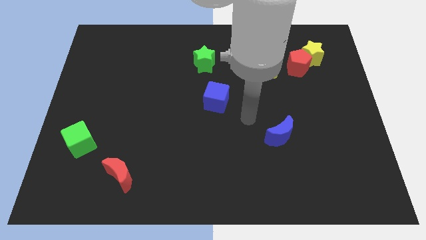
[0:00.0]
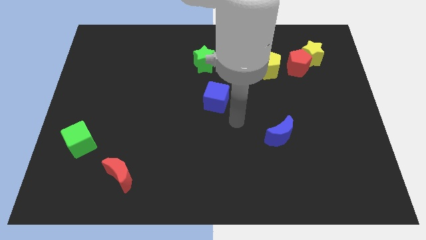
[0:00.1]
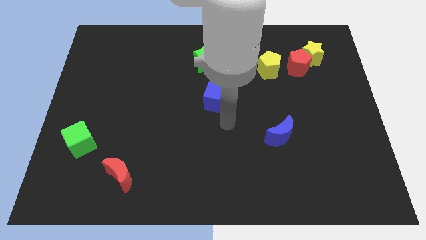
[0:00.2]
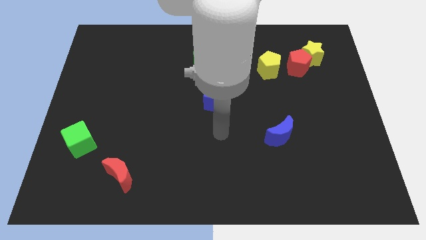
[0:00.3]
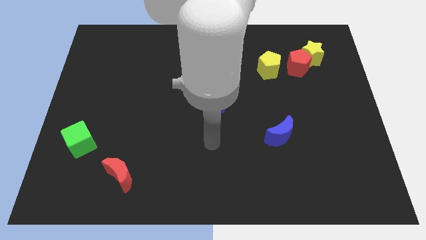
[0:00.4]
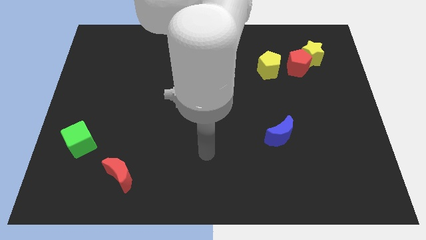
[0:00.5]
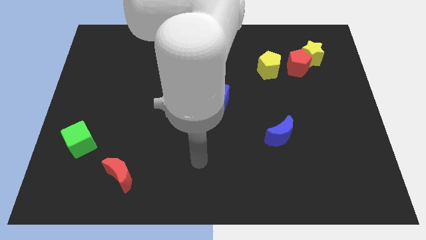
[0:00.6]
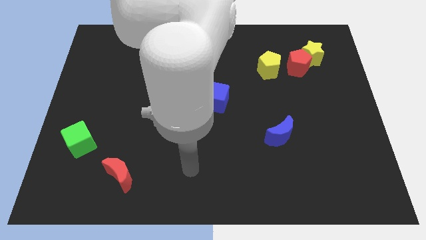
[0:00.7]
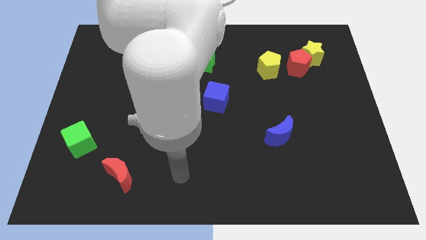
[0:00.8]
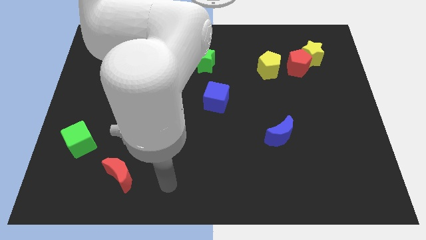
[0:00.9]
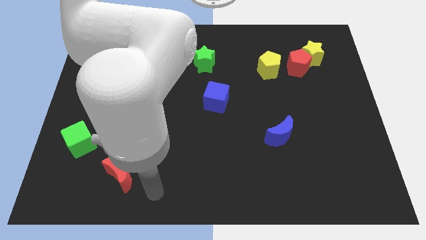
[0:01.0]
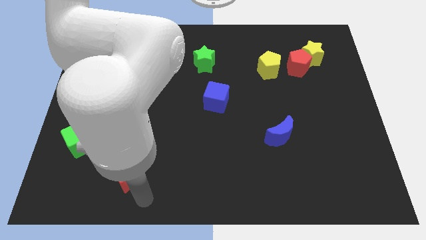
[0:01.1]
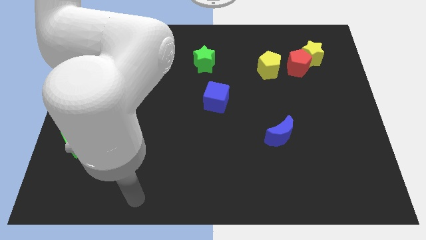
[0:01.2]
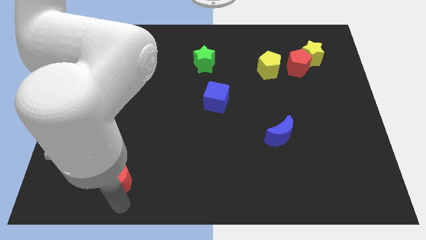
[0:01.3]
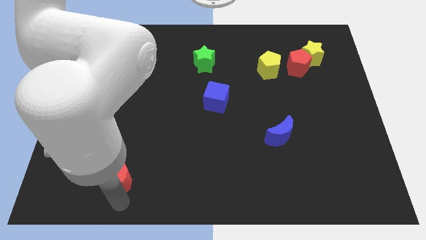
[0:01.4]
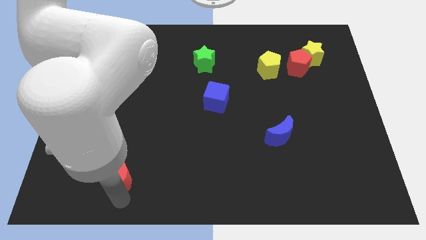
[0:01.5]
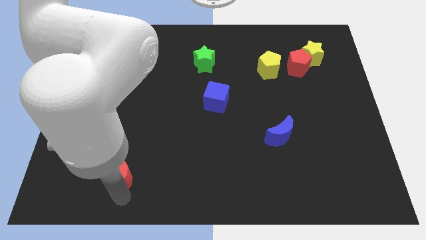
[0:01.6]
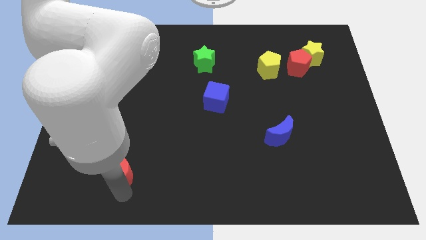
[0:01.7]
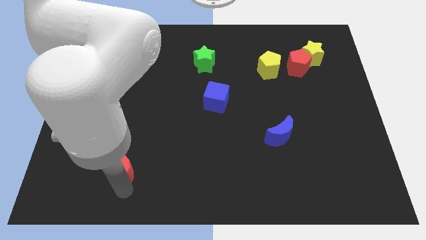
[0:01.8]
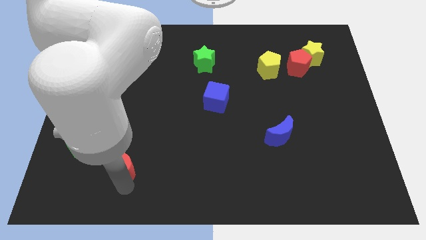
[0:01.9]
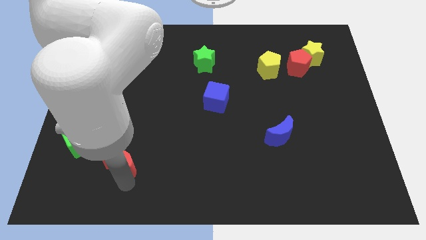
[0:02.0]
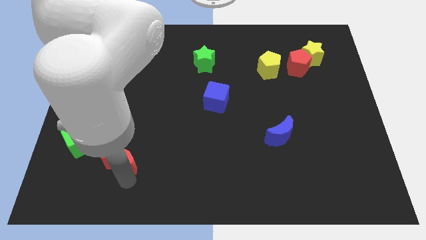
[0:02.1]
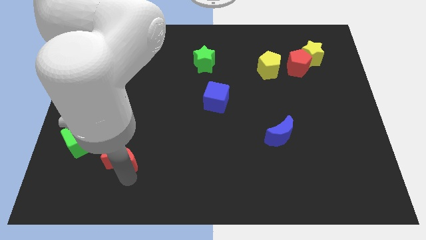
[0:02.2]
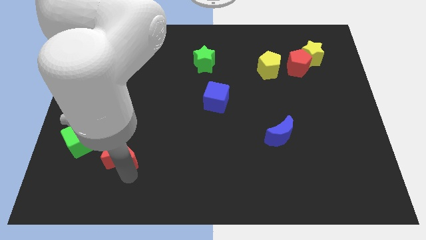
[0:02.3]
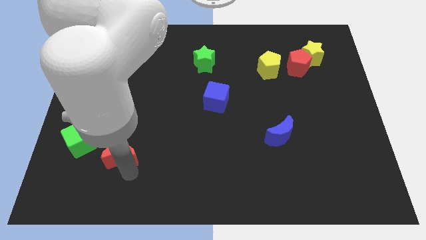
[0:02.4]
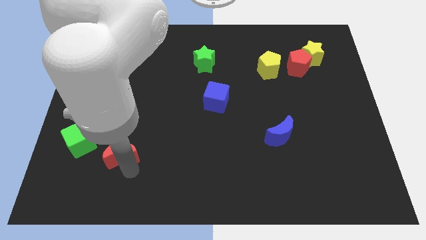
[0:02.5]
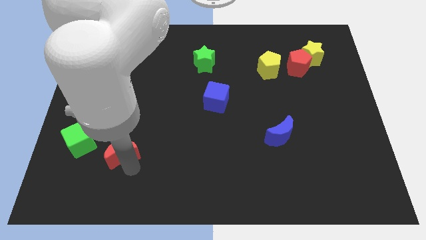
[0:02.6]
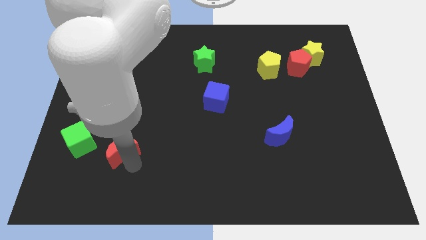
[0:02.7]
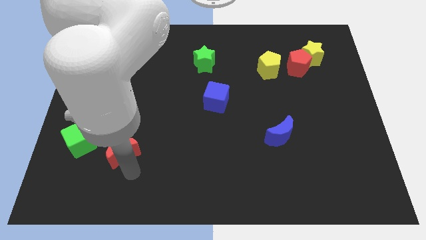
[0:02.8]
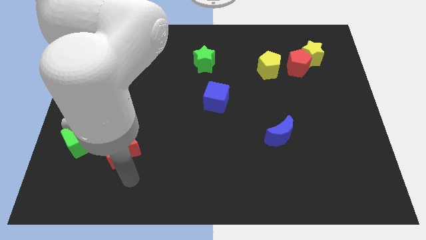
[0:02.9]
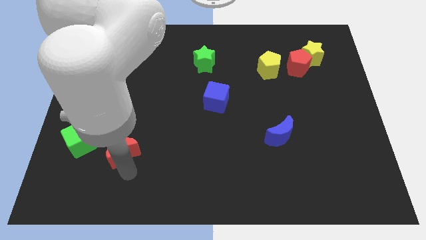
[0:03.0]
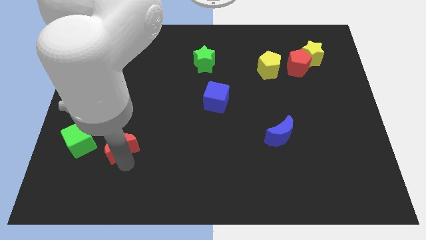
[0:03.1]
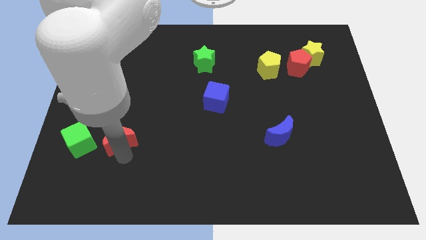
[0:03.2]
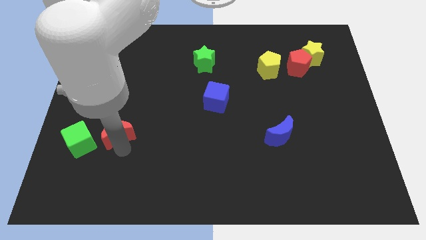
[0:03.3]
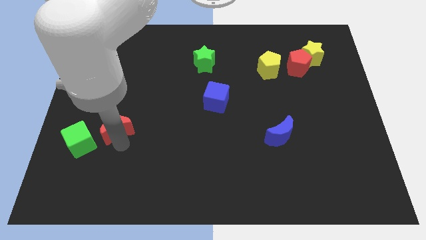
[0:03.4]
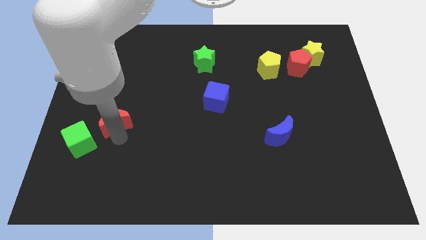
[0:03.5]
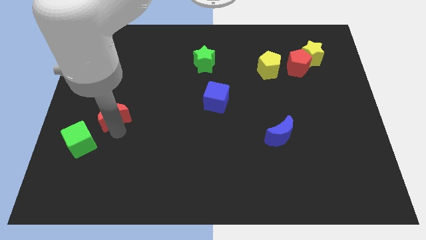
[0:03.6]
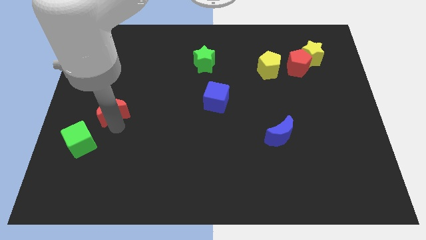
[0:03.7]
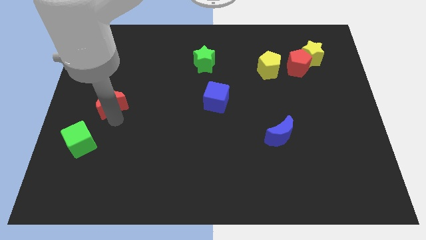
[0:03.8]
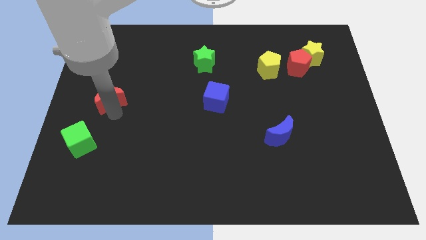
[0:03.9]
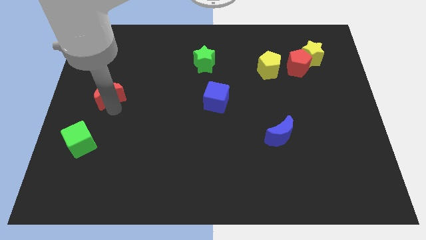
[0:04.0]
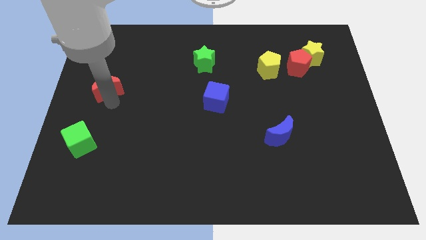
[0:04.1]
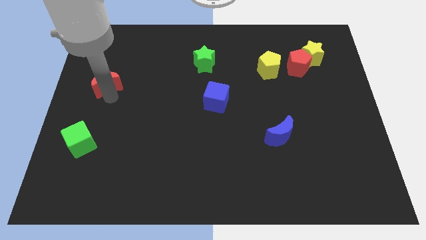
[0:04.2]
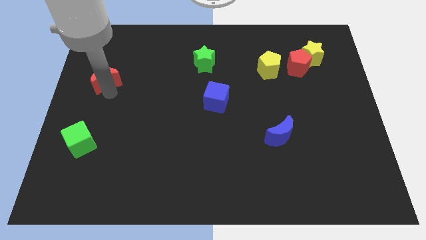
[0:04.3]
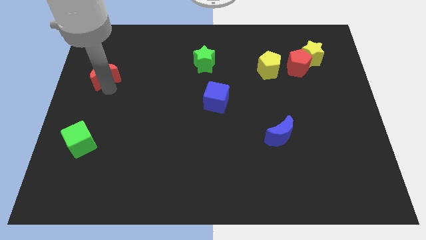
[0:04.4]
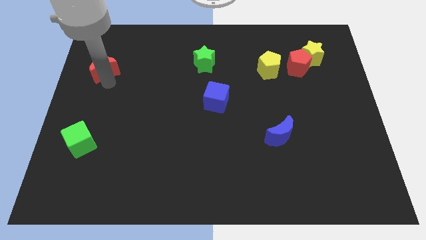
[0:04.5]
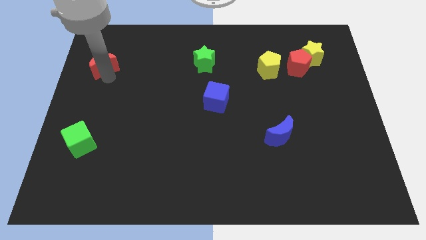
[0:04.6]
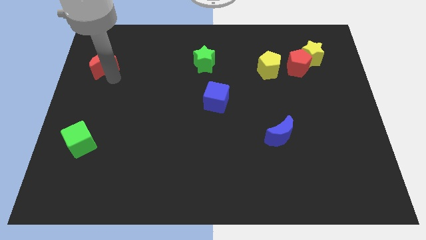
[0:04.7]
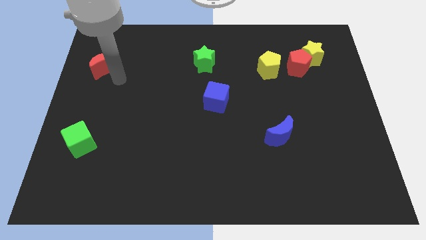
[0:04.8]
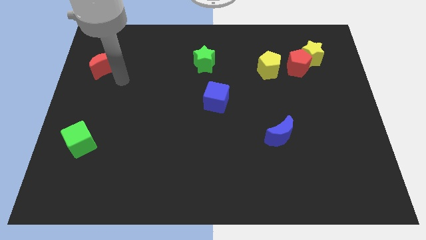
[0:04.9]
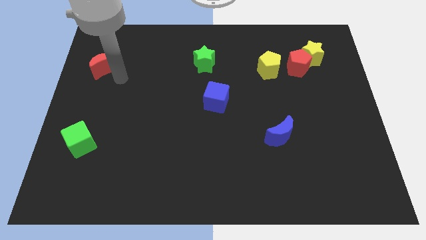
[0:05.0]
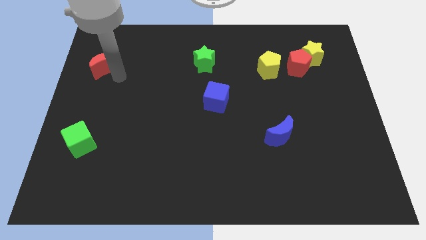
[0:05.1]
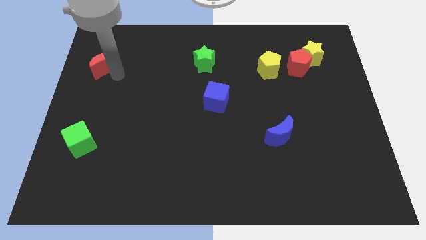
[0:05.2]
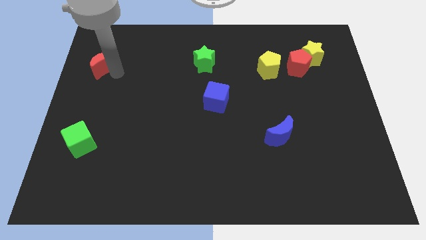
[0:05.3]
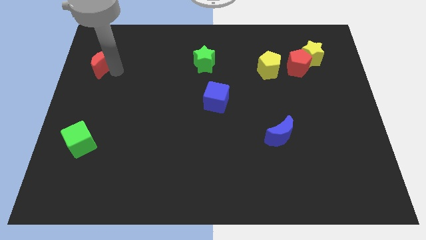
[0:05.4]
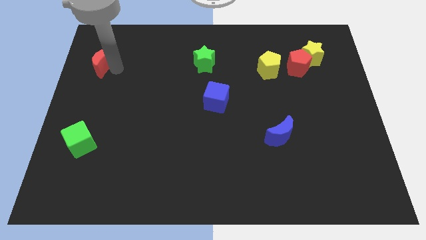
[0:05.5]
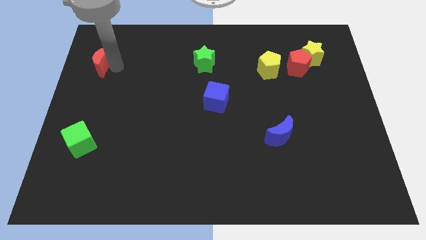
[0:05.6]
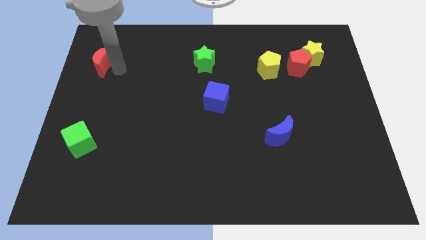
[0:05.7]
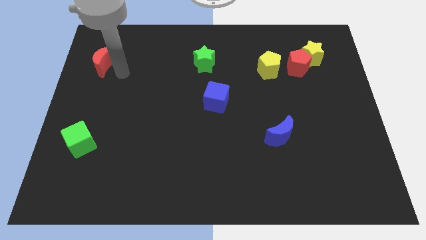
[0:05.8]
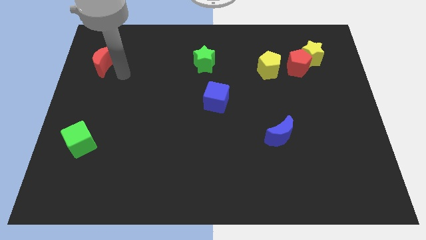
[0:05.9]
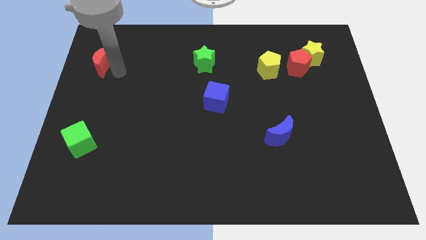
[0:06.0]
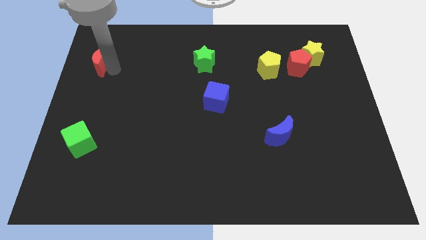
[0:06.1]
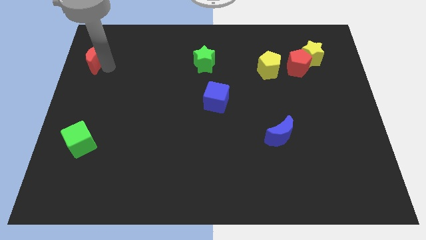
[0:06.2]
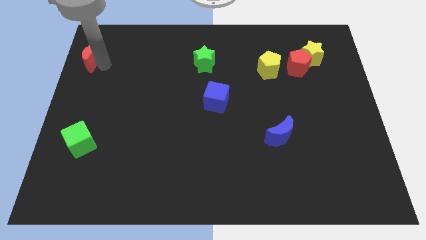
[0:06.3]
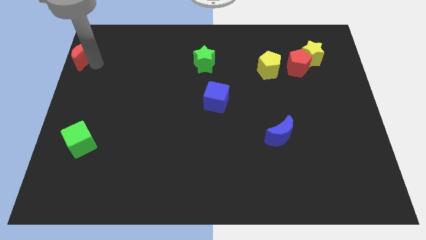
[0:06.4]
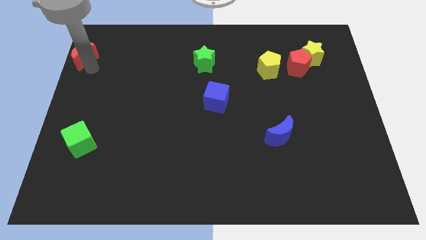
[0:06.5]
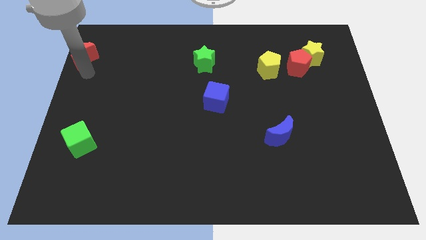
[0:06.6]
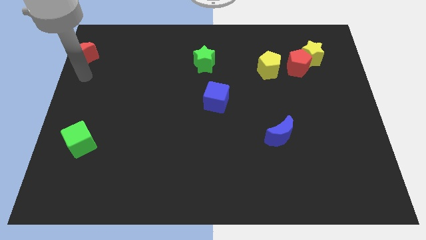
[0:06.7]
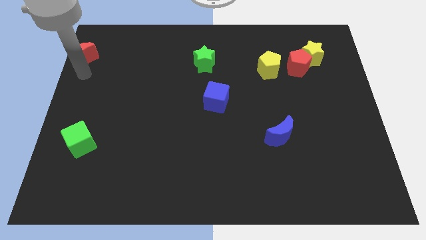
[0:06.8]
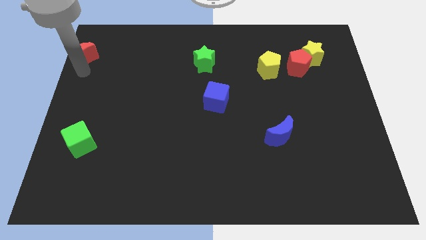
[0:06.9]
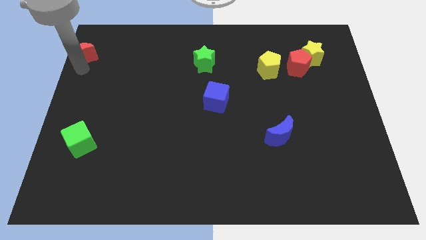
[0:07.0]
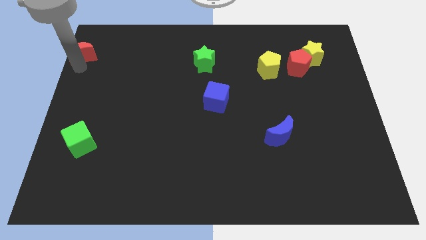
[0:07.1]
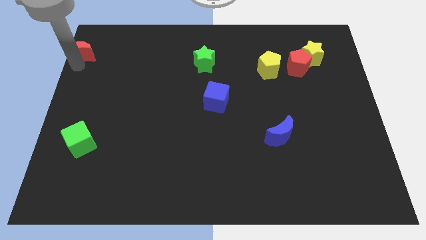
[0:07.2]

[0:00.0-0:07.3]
move the red moon to the upper left corner
